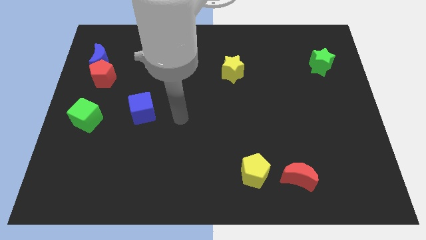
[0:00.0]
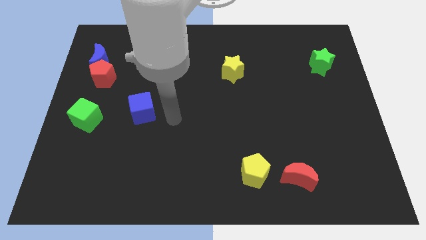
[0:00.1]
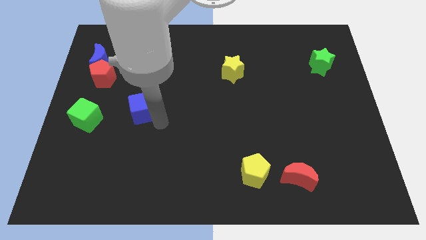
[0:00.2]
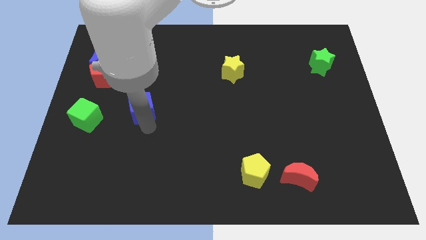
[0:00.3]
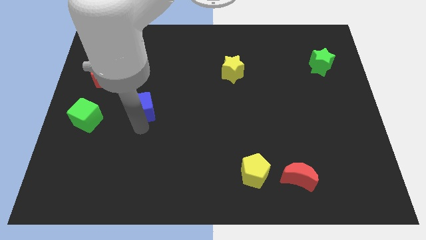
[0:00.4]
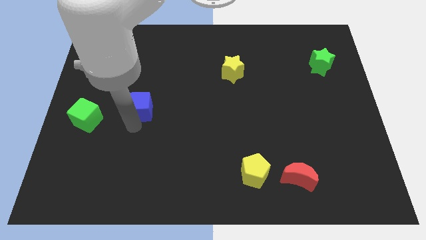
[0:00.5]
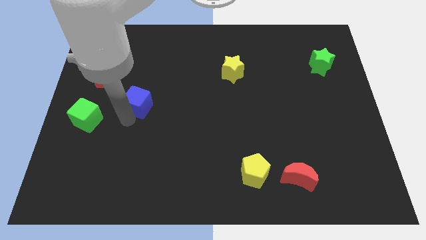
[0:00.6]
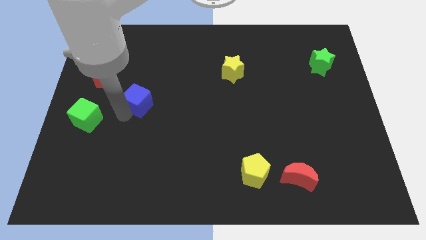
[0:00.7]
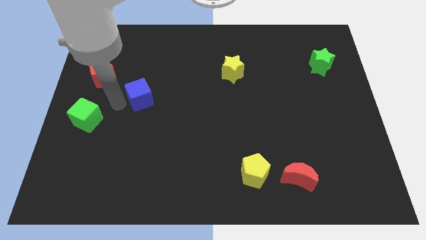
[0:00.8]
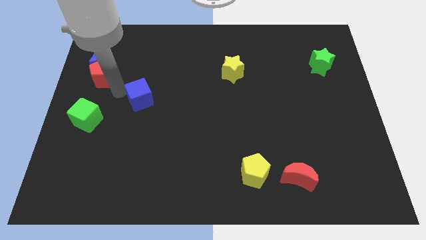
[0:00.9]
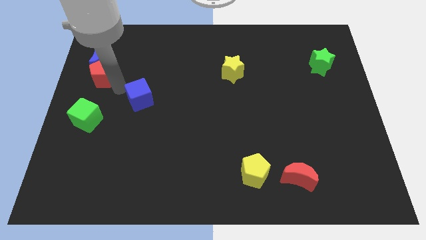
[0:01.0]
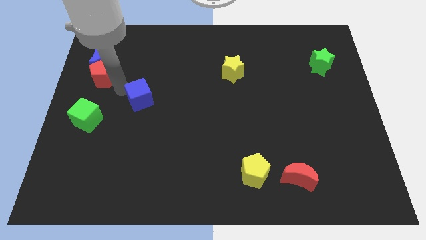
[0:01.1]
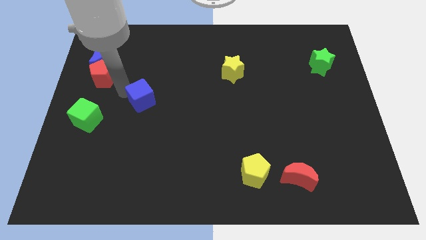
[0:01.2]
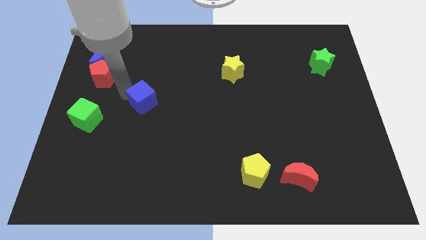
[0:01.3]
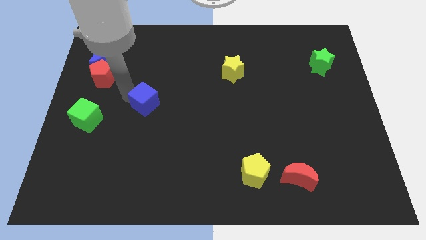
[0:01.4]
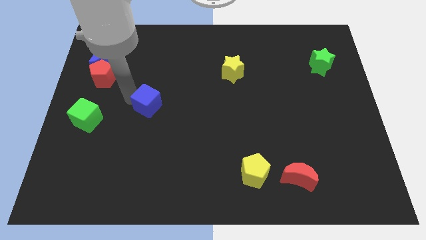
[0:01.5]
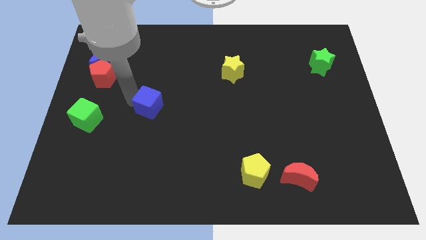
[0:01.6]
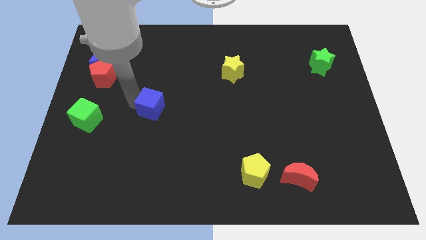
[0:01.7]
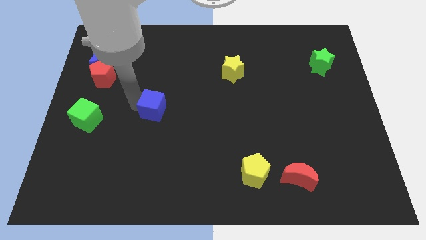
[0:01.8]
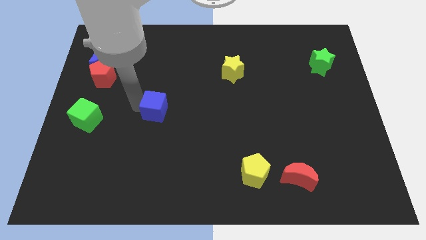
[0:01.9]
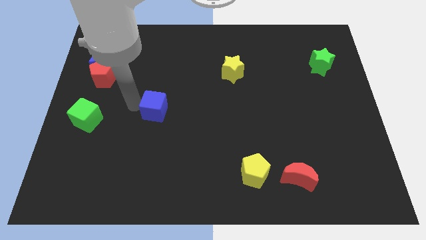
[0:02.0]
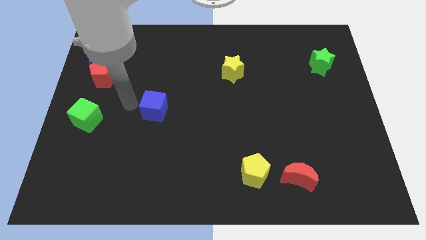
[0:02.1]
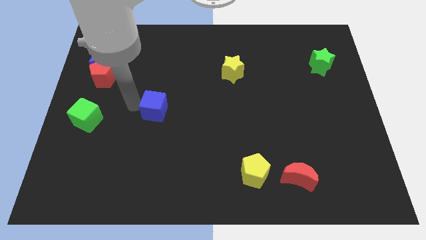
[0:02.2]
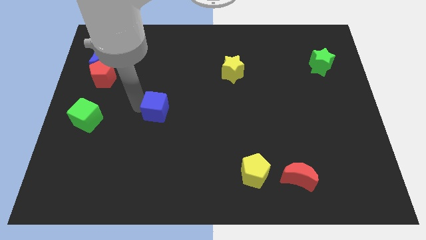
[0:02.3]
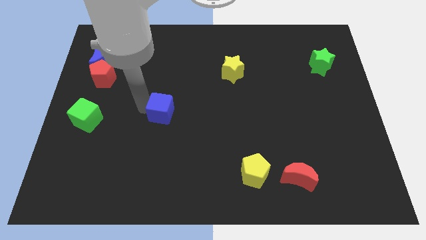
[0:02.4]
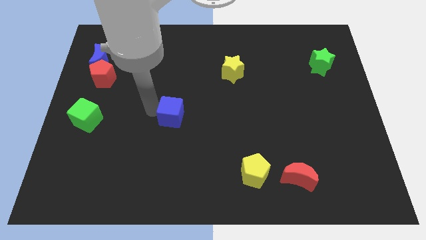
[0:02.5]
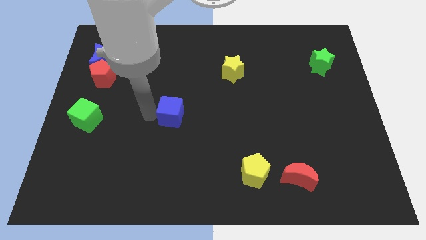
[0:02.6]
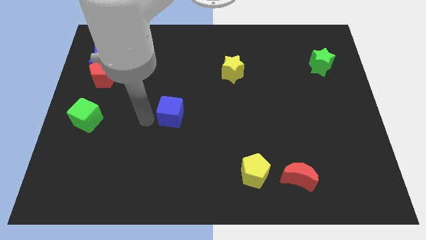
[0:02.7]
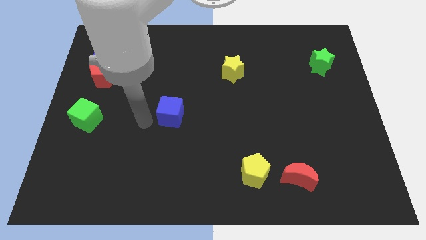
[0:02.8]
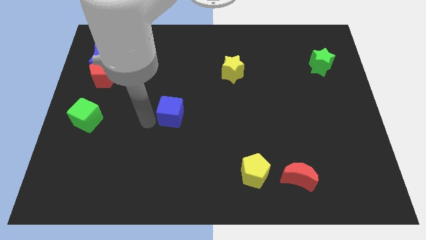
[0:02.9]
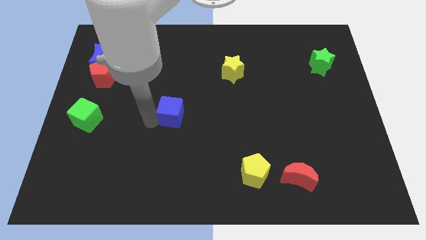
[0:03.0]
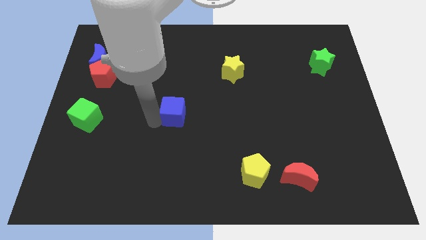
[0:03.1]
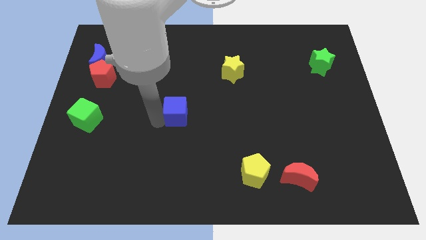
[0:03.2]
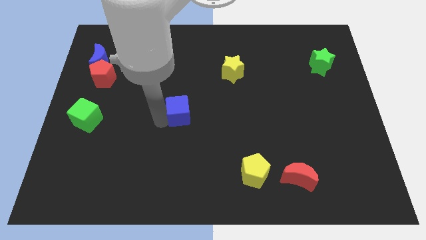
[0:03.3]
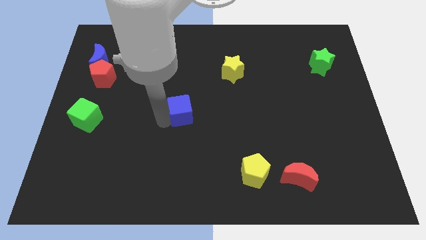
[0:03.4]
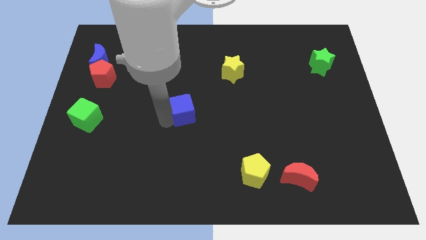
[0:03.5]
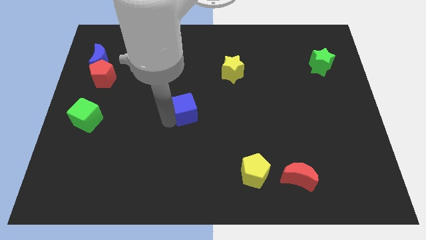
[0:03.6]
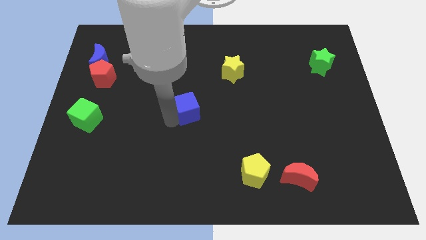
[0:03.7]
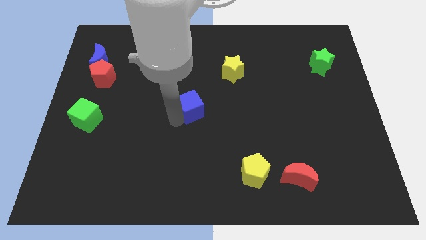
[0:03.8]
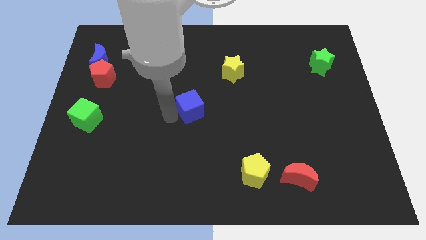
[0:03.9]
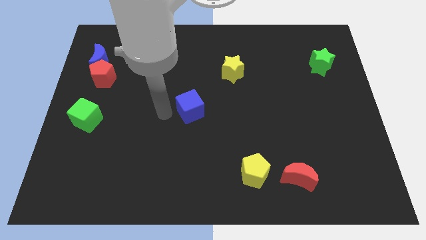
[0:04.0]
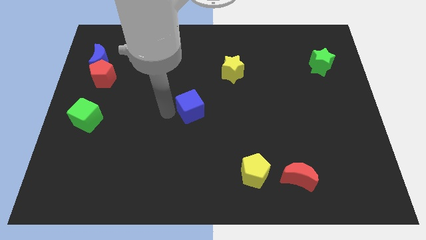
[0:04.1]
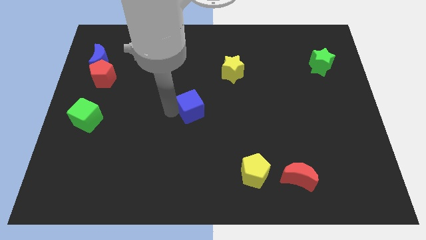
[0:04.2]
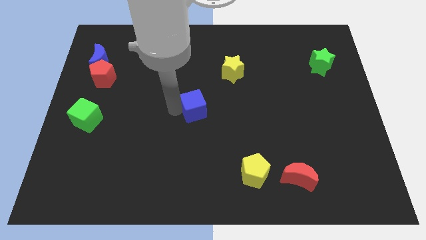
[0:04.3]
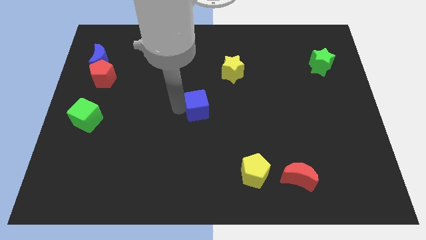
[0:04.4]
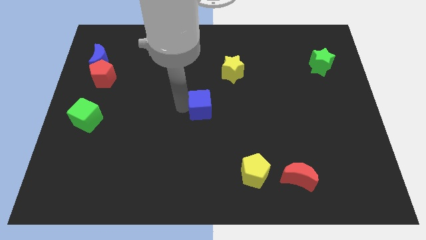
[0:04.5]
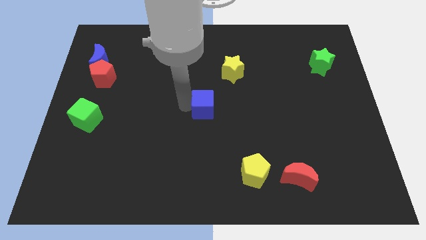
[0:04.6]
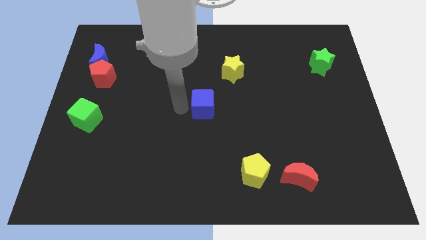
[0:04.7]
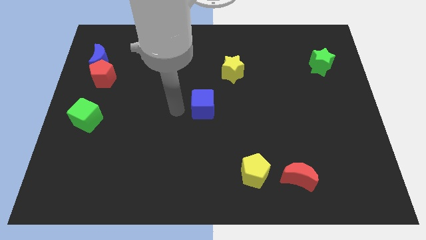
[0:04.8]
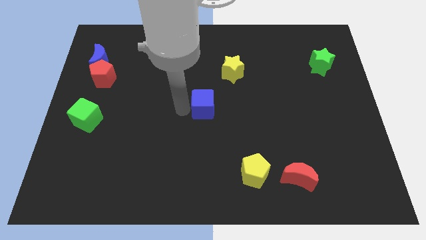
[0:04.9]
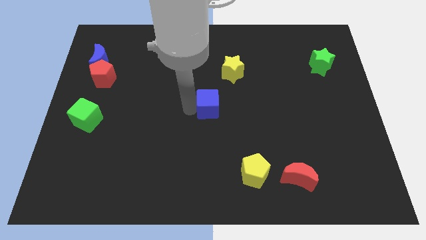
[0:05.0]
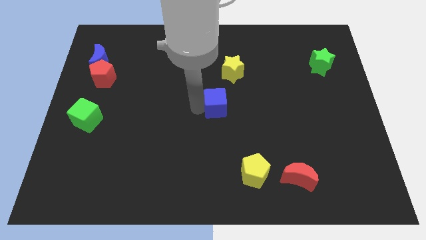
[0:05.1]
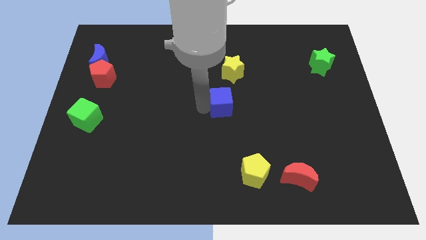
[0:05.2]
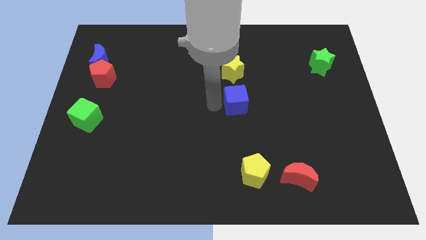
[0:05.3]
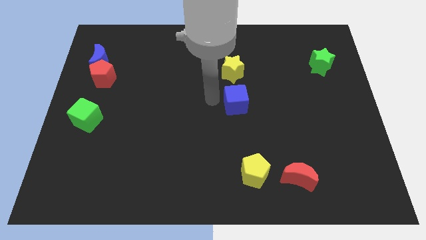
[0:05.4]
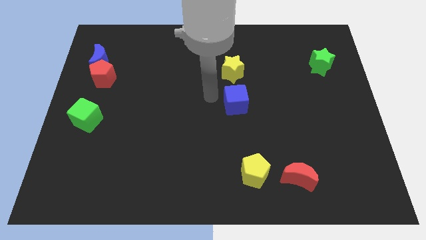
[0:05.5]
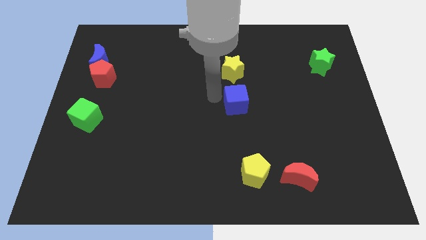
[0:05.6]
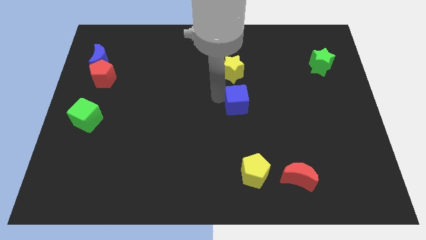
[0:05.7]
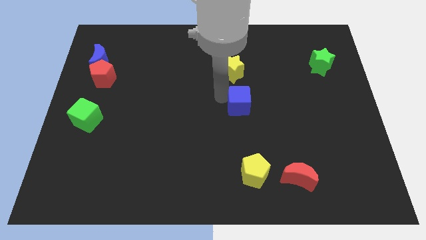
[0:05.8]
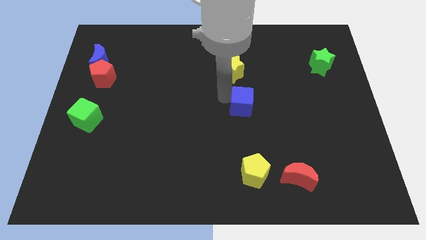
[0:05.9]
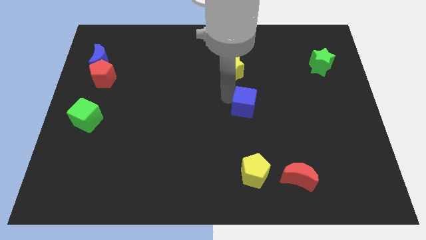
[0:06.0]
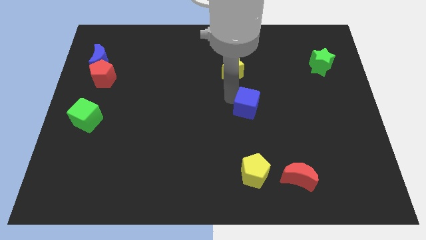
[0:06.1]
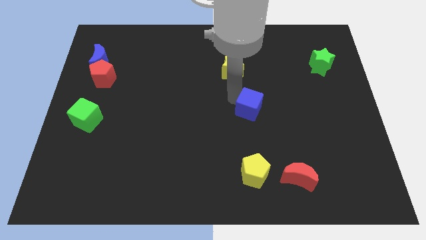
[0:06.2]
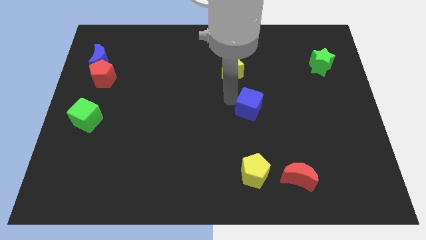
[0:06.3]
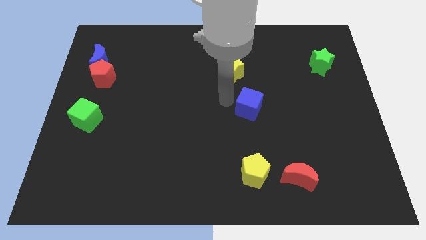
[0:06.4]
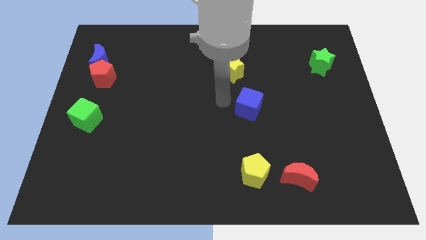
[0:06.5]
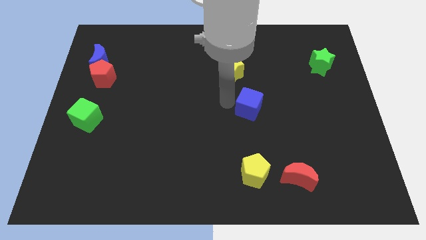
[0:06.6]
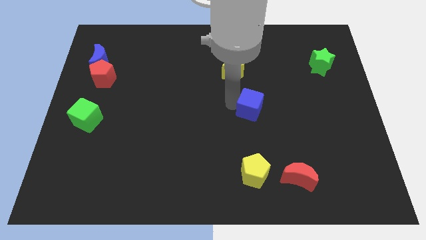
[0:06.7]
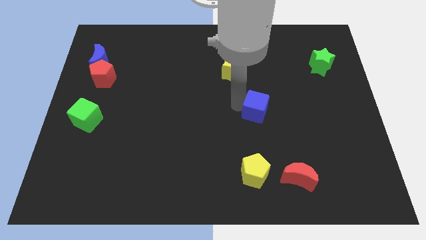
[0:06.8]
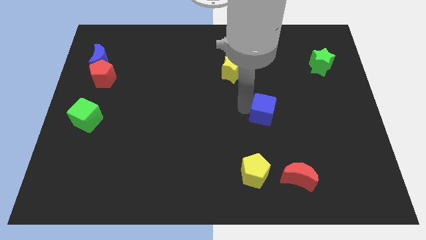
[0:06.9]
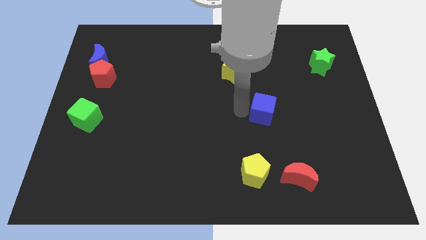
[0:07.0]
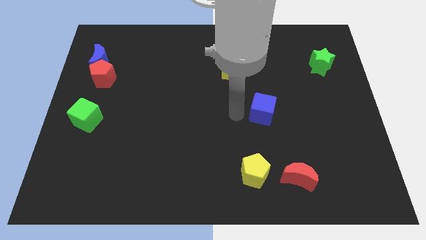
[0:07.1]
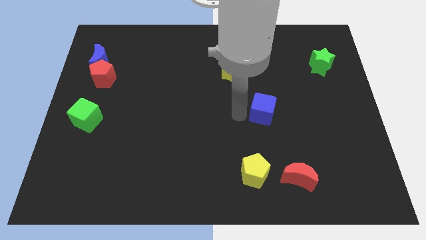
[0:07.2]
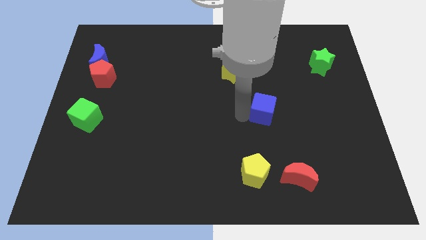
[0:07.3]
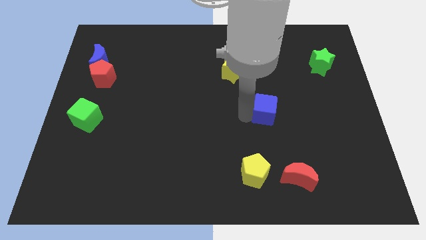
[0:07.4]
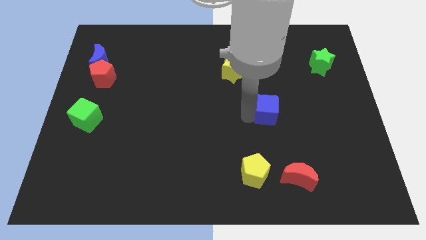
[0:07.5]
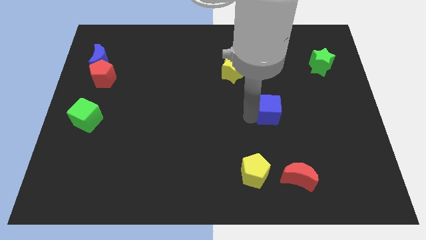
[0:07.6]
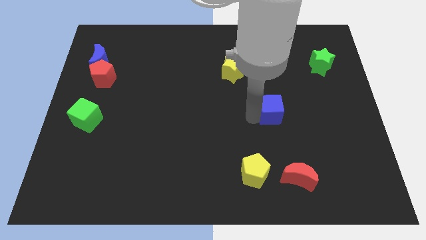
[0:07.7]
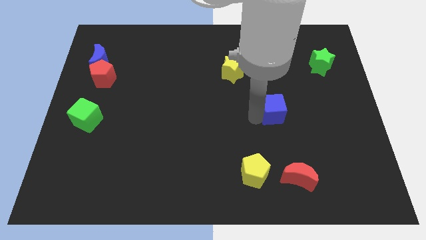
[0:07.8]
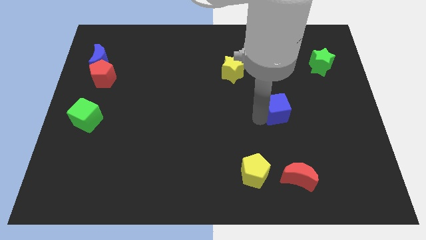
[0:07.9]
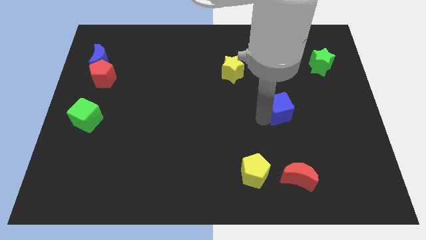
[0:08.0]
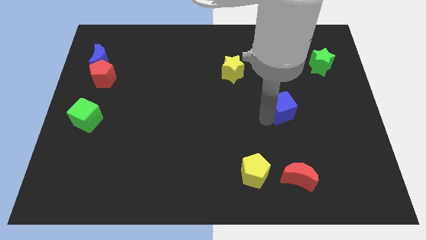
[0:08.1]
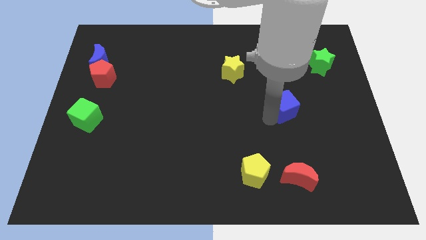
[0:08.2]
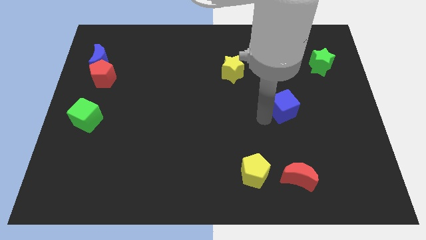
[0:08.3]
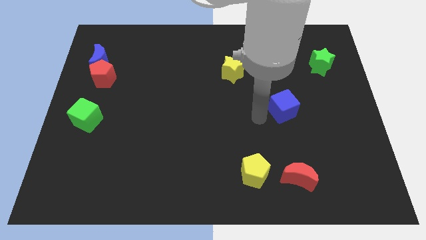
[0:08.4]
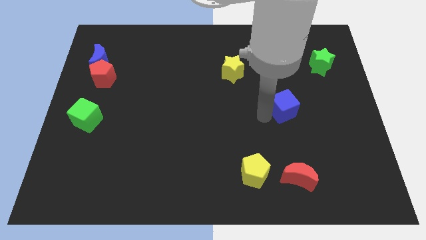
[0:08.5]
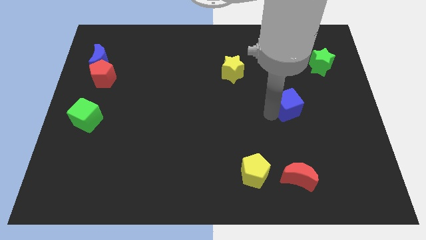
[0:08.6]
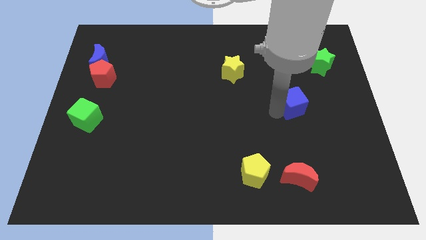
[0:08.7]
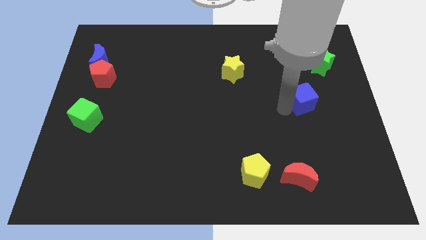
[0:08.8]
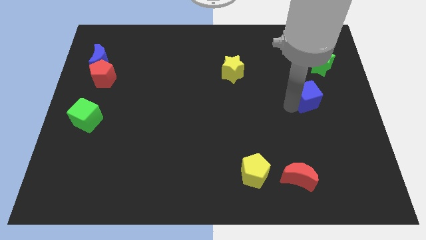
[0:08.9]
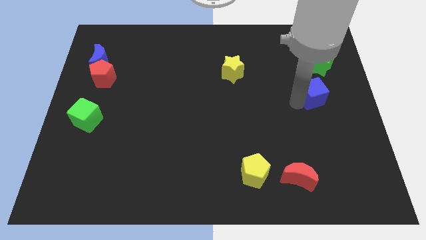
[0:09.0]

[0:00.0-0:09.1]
put the blue cube below the green star
